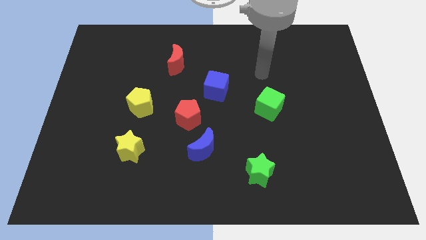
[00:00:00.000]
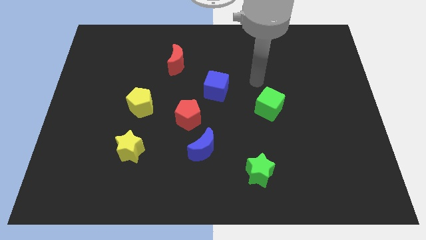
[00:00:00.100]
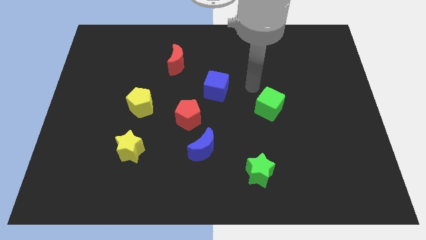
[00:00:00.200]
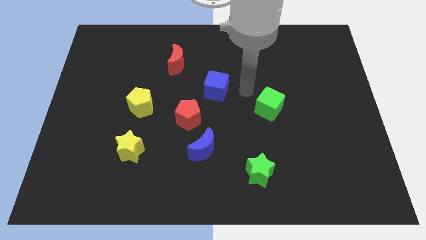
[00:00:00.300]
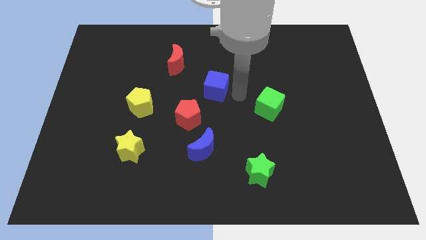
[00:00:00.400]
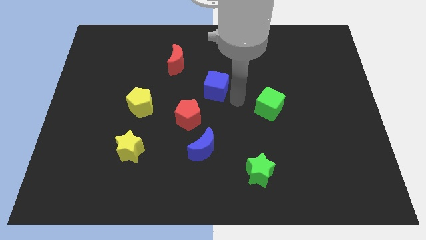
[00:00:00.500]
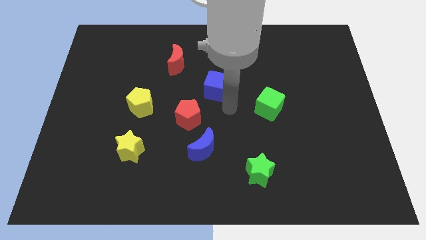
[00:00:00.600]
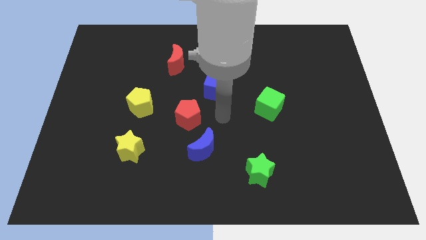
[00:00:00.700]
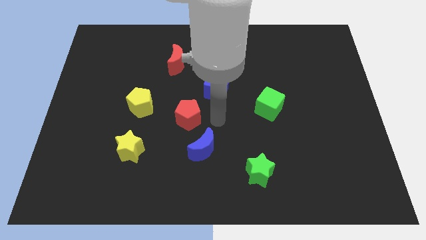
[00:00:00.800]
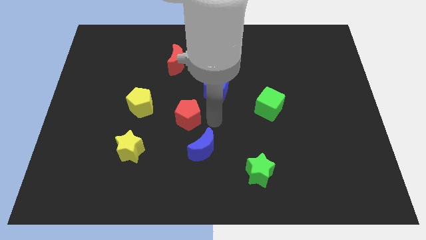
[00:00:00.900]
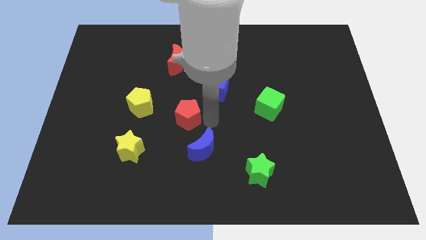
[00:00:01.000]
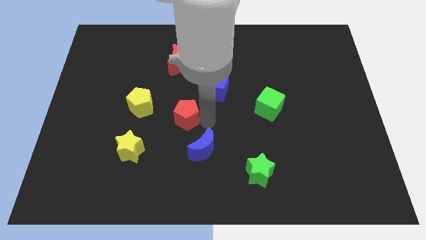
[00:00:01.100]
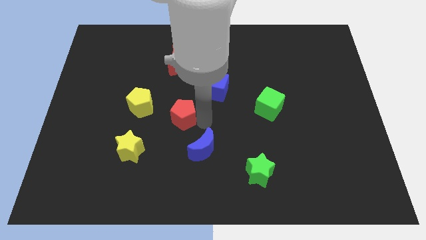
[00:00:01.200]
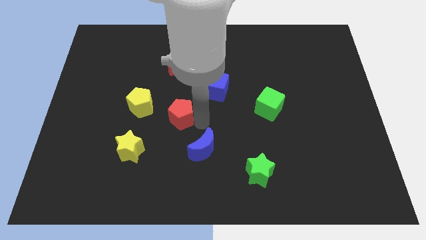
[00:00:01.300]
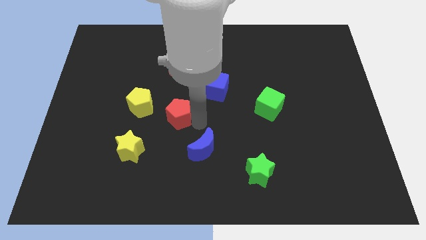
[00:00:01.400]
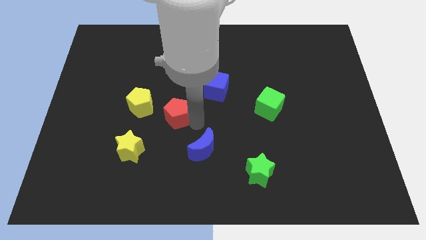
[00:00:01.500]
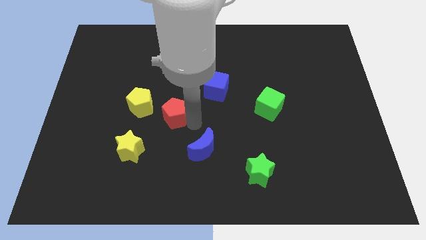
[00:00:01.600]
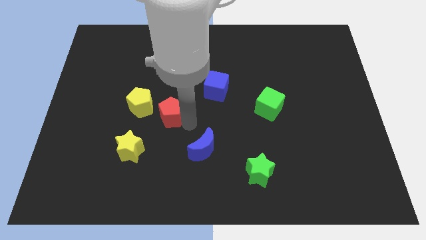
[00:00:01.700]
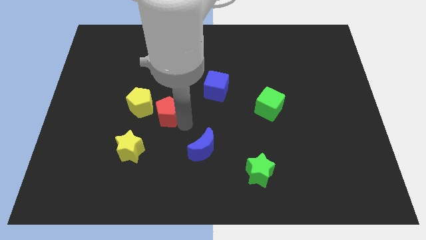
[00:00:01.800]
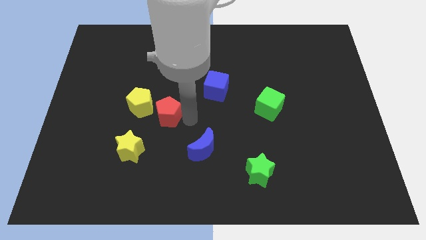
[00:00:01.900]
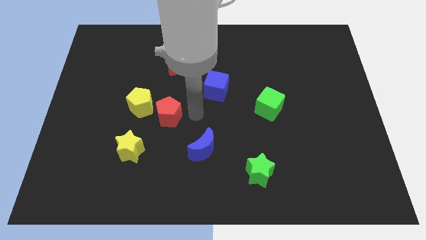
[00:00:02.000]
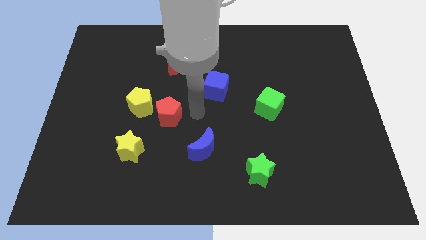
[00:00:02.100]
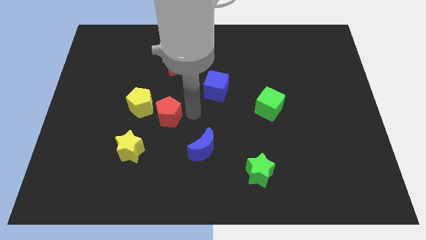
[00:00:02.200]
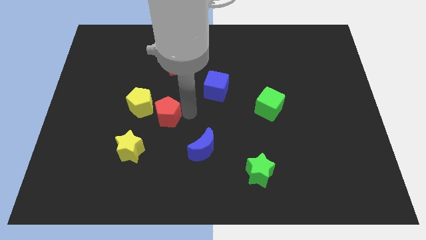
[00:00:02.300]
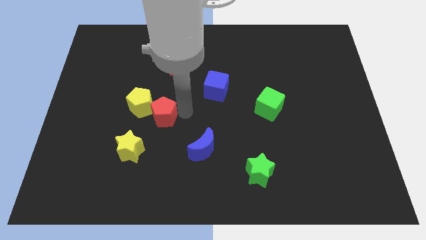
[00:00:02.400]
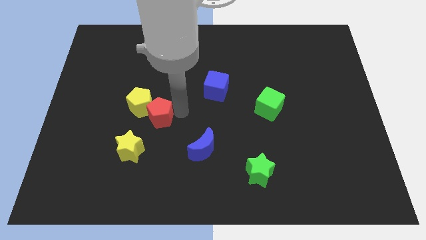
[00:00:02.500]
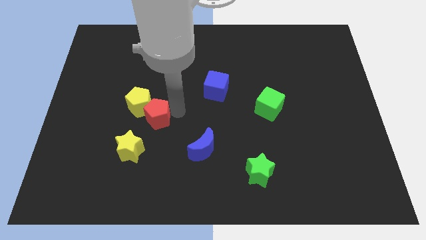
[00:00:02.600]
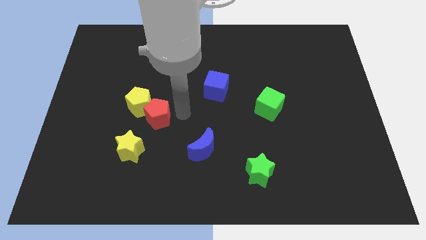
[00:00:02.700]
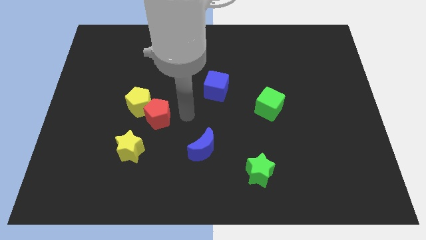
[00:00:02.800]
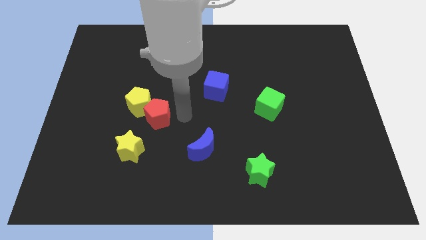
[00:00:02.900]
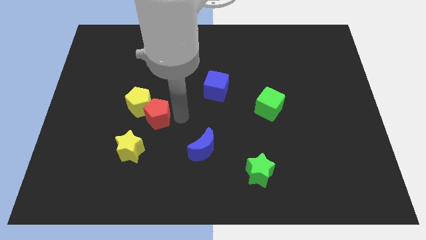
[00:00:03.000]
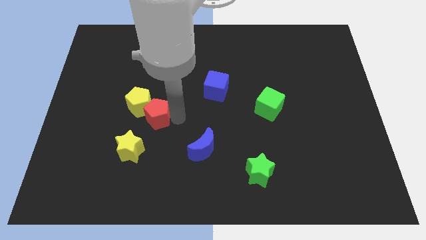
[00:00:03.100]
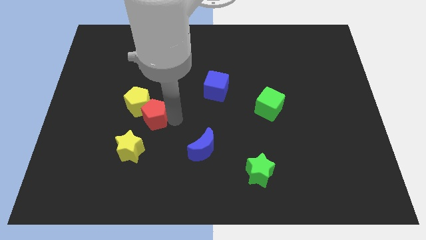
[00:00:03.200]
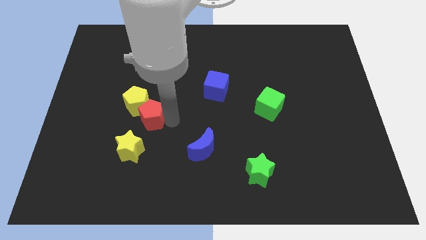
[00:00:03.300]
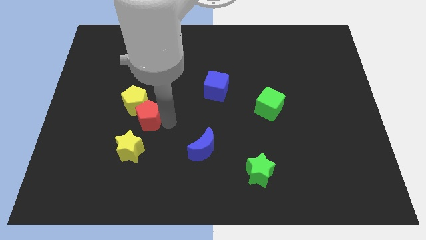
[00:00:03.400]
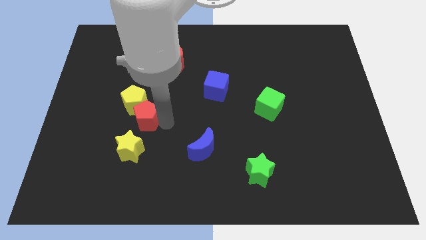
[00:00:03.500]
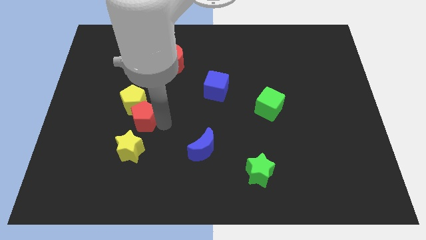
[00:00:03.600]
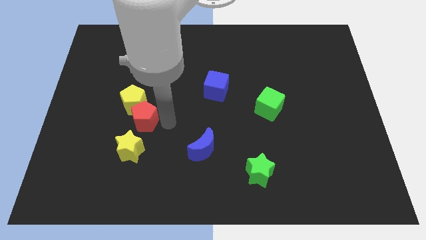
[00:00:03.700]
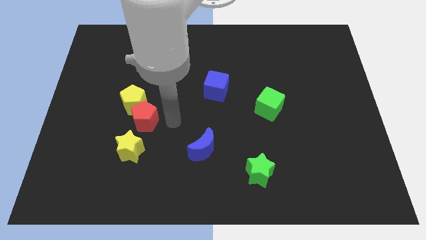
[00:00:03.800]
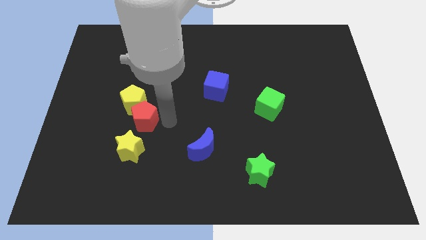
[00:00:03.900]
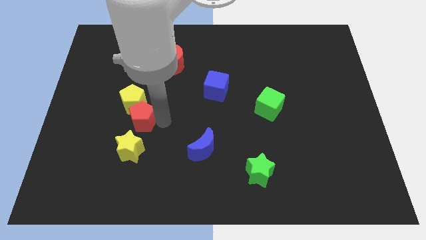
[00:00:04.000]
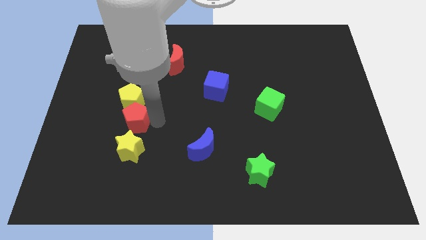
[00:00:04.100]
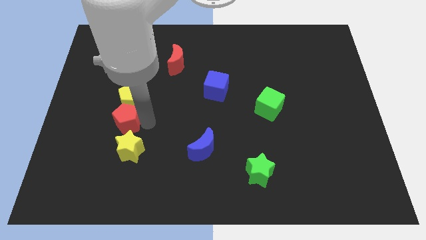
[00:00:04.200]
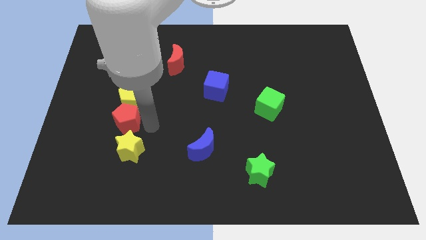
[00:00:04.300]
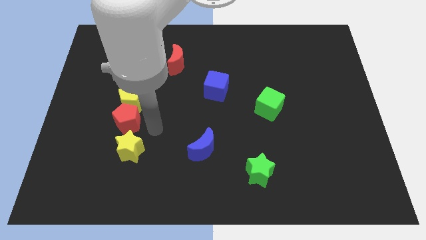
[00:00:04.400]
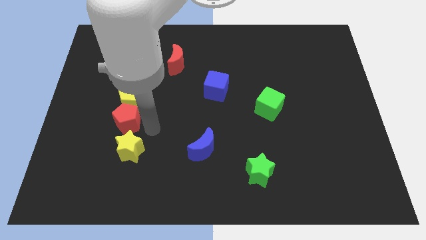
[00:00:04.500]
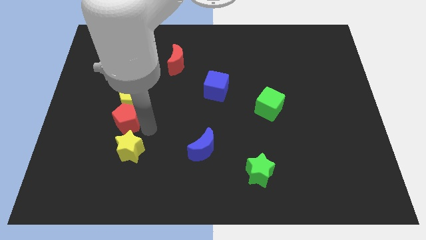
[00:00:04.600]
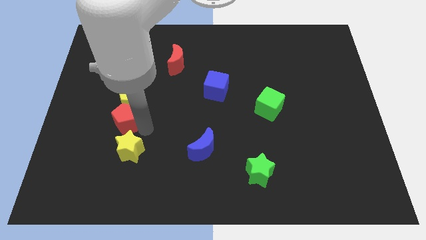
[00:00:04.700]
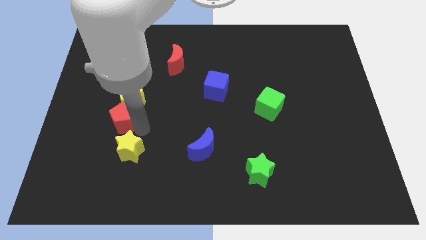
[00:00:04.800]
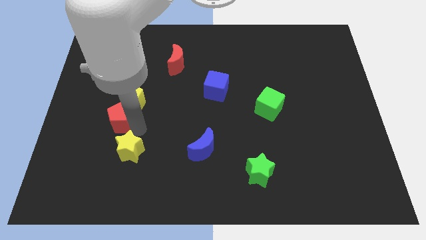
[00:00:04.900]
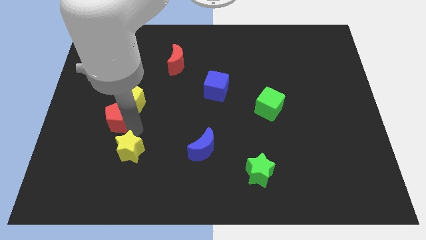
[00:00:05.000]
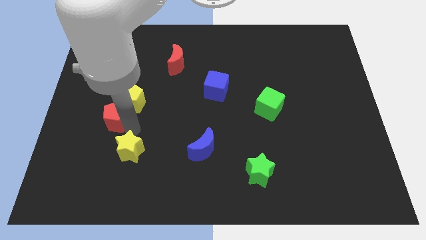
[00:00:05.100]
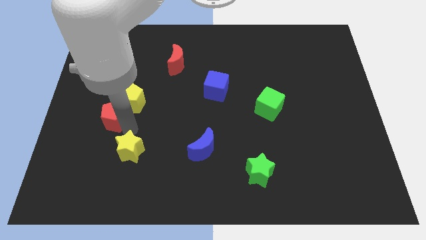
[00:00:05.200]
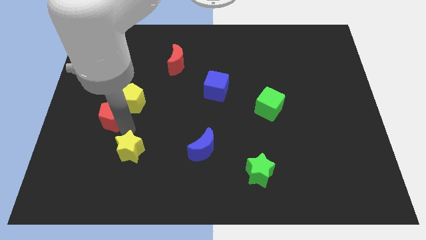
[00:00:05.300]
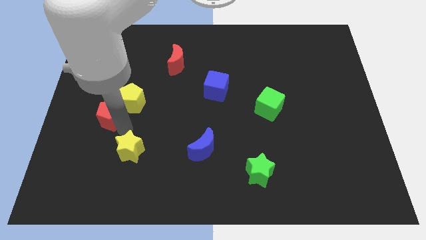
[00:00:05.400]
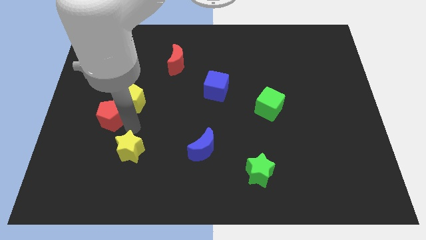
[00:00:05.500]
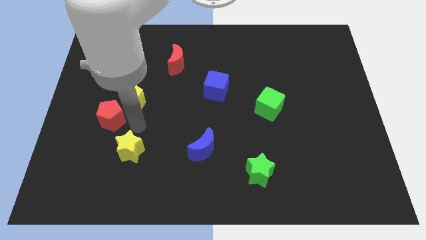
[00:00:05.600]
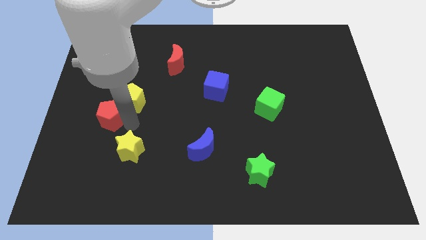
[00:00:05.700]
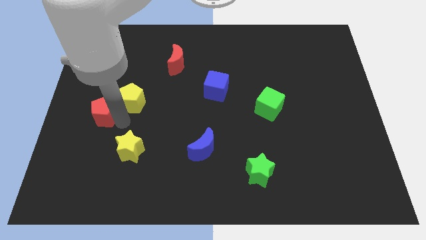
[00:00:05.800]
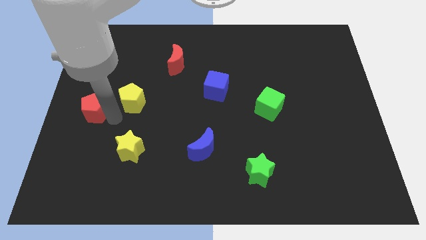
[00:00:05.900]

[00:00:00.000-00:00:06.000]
put the red pentagon to the center left

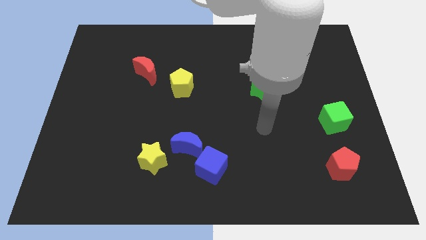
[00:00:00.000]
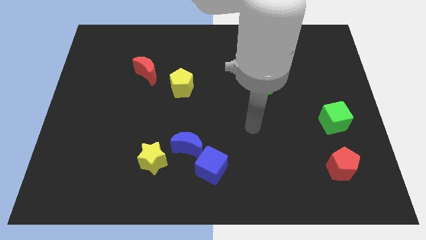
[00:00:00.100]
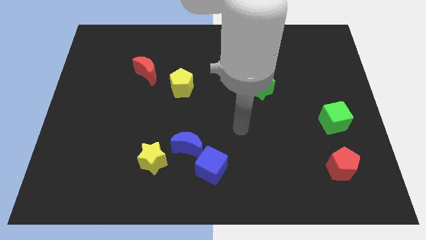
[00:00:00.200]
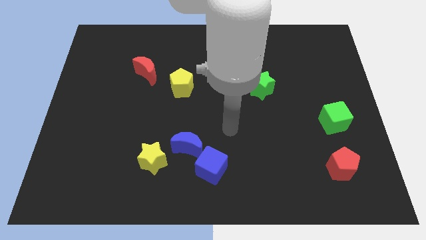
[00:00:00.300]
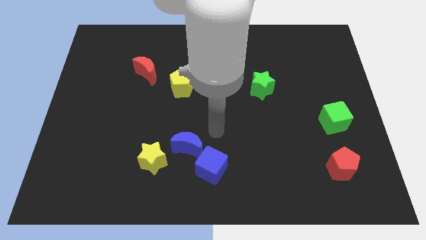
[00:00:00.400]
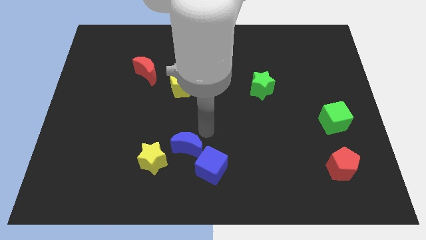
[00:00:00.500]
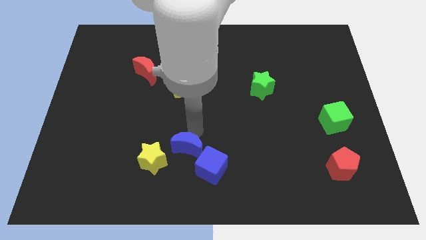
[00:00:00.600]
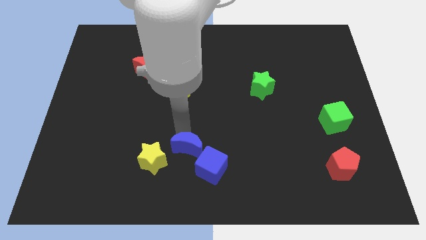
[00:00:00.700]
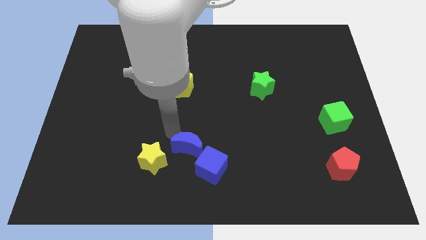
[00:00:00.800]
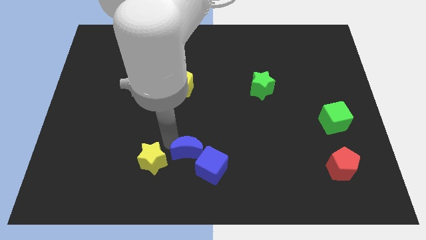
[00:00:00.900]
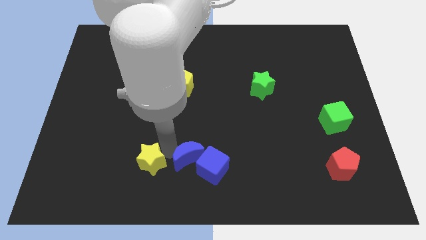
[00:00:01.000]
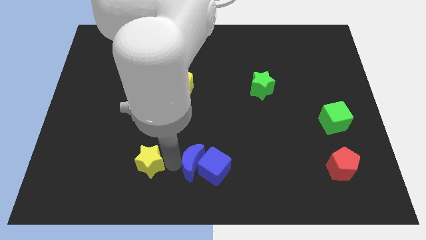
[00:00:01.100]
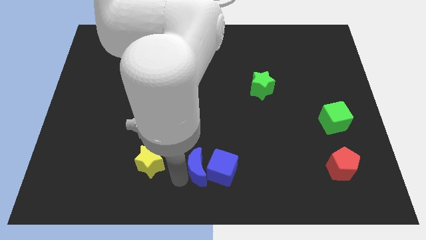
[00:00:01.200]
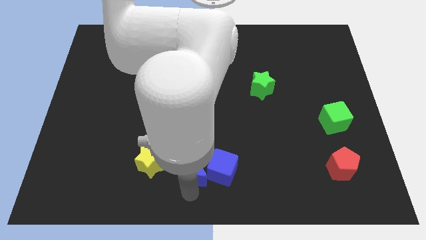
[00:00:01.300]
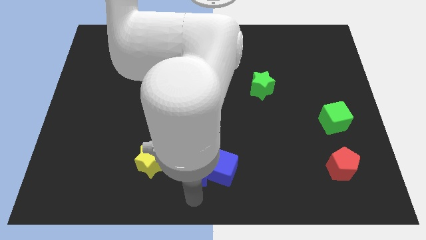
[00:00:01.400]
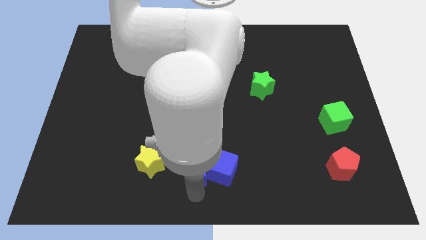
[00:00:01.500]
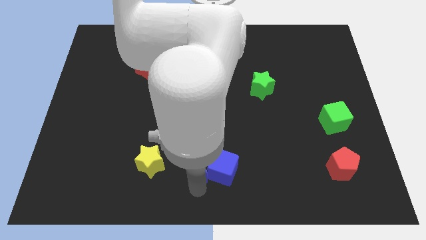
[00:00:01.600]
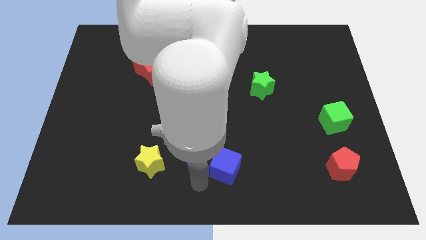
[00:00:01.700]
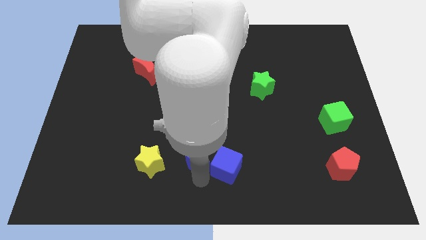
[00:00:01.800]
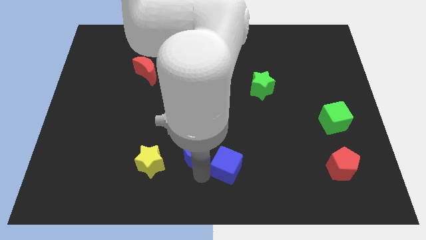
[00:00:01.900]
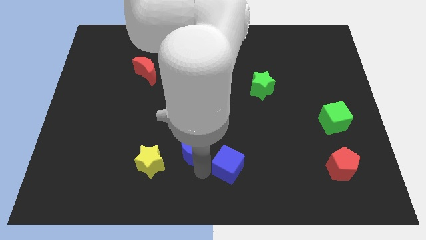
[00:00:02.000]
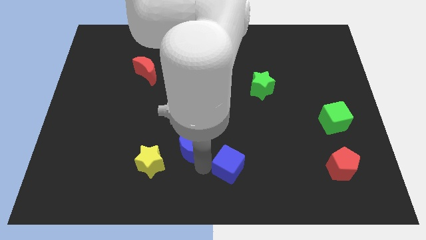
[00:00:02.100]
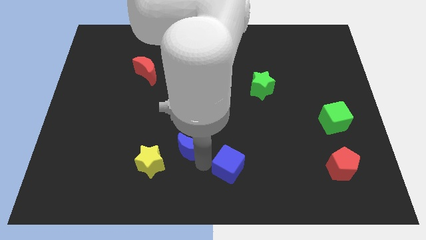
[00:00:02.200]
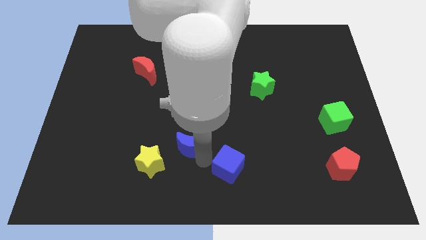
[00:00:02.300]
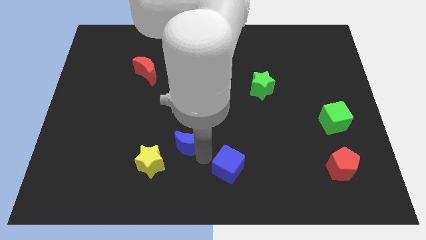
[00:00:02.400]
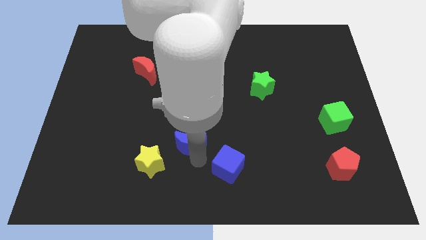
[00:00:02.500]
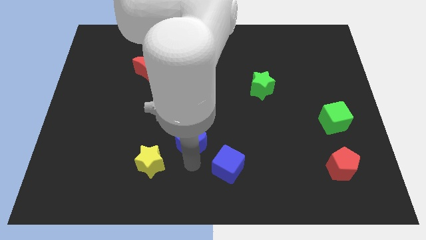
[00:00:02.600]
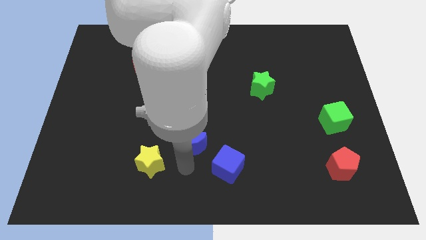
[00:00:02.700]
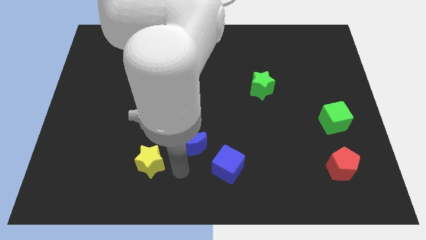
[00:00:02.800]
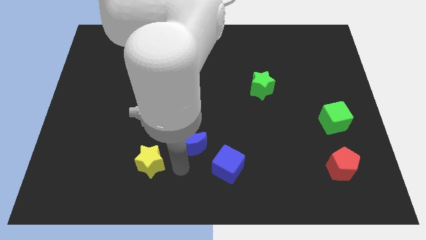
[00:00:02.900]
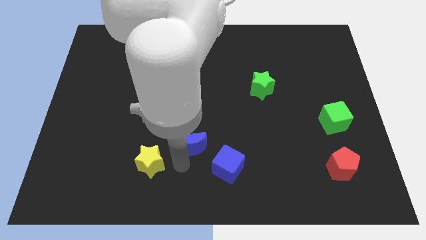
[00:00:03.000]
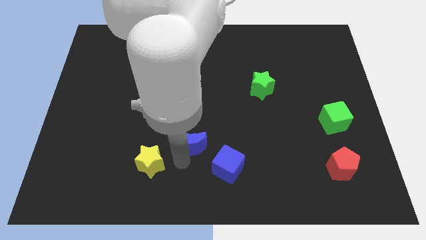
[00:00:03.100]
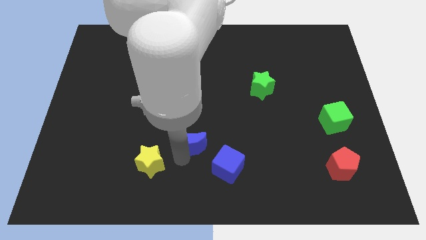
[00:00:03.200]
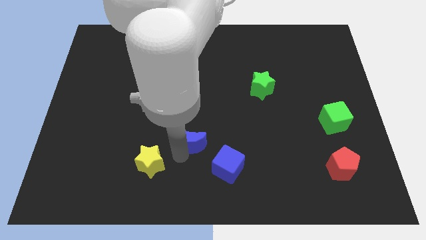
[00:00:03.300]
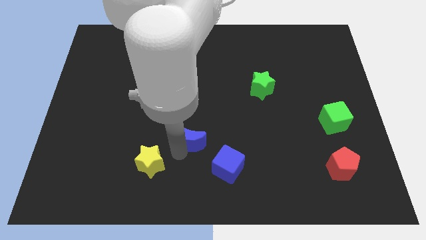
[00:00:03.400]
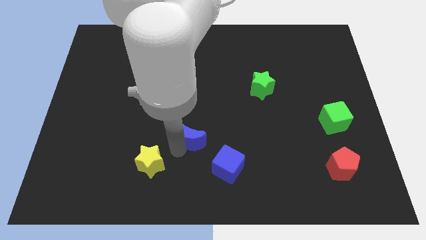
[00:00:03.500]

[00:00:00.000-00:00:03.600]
push the blue moon to the middle of the board
